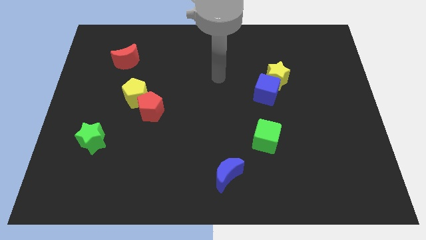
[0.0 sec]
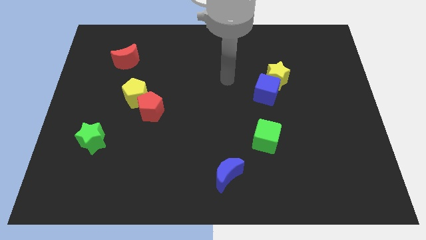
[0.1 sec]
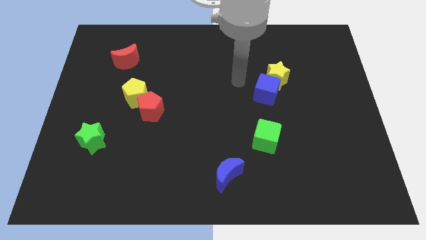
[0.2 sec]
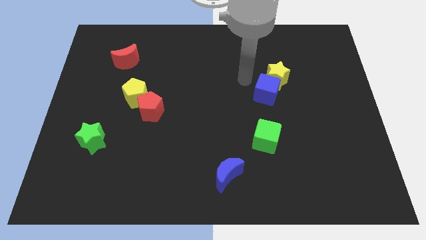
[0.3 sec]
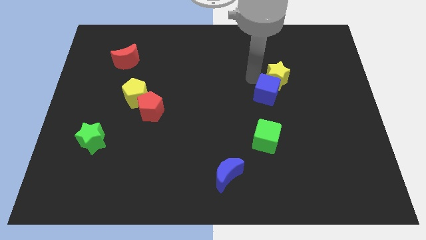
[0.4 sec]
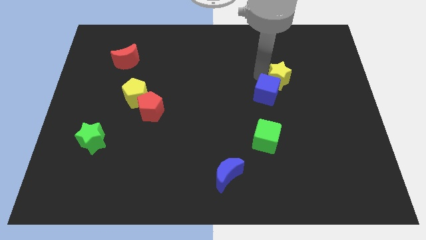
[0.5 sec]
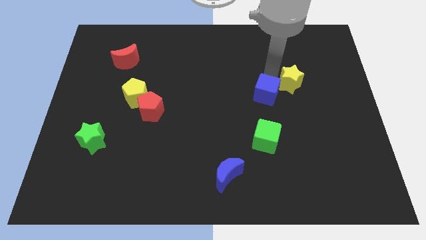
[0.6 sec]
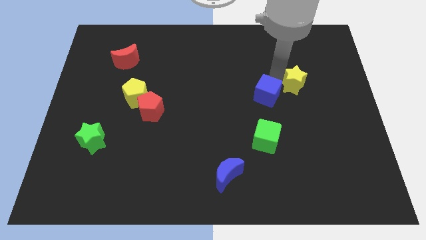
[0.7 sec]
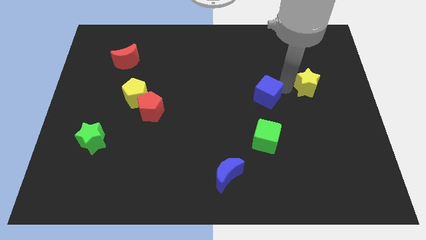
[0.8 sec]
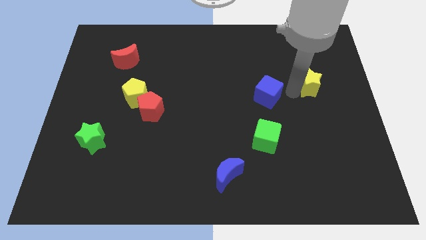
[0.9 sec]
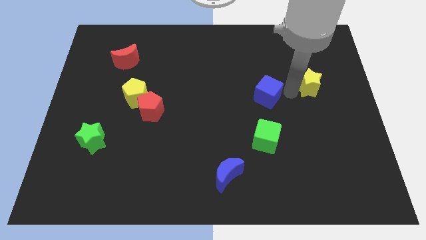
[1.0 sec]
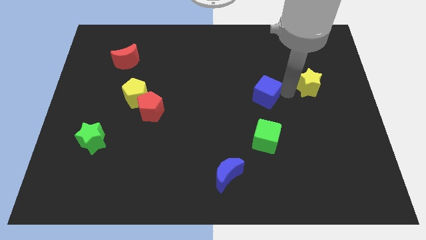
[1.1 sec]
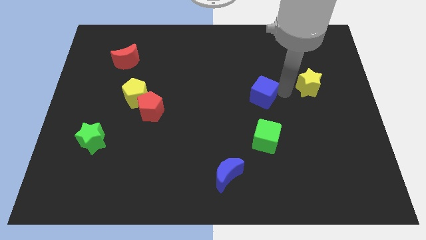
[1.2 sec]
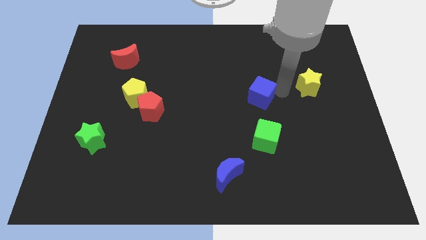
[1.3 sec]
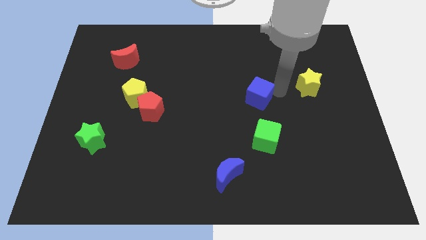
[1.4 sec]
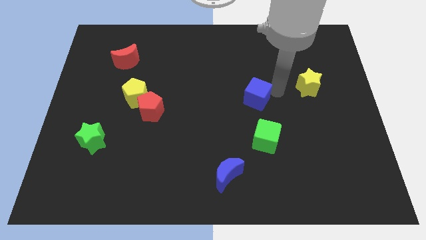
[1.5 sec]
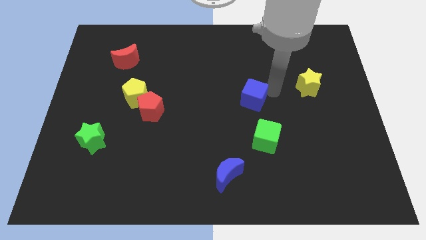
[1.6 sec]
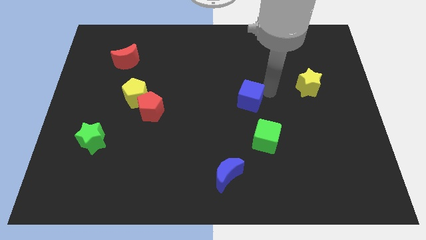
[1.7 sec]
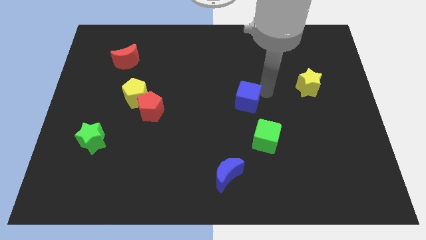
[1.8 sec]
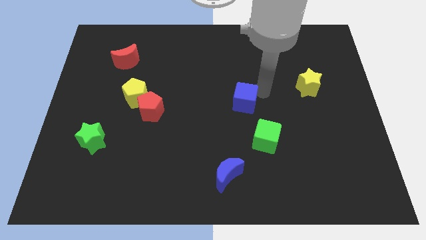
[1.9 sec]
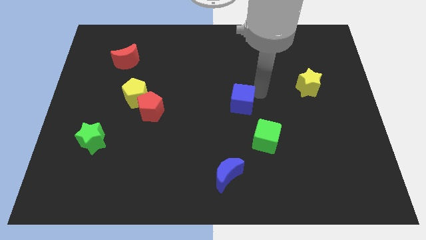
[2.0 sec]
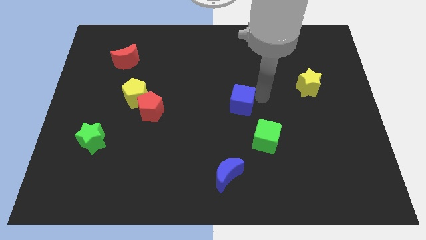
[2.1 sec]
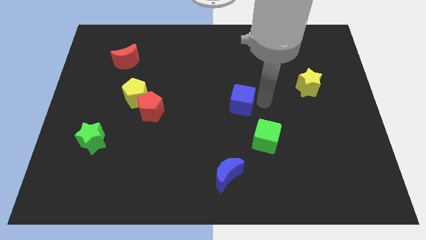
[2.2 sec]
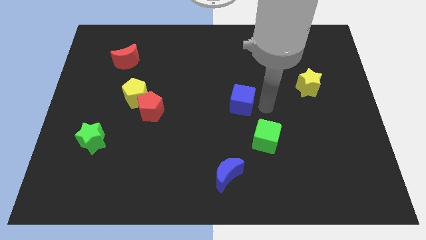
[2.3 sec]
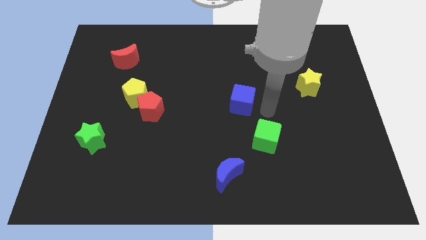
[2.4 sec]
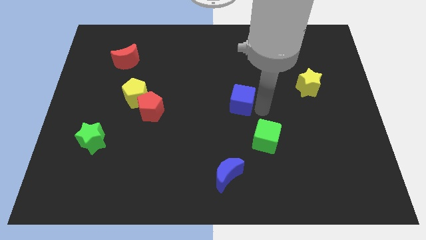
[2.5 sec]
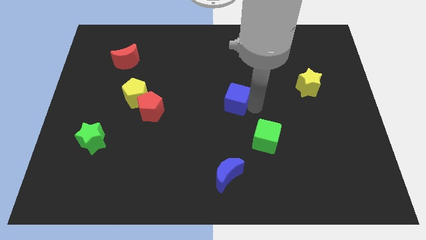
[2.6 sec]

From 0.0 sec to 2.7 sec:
move the blue cube somewhat left

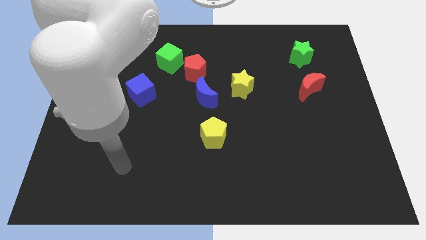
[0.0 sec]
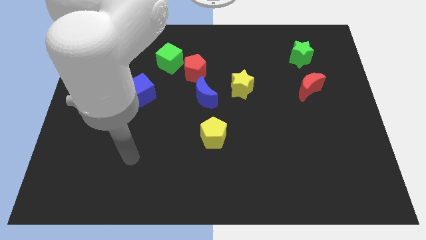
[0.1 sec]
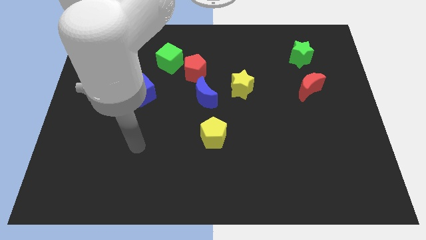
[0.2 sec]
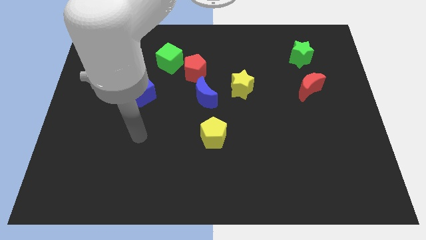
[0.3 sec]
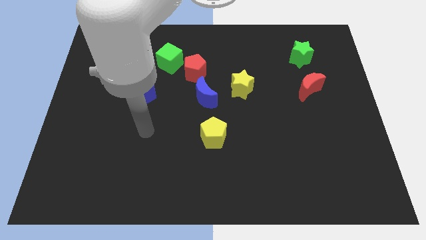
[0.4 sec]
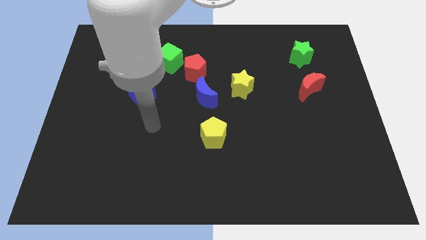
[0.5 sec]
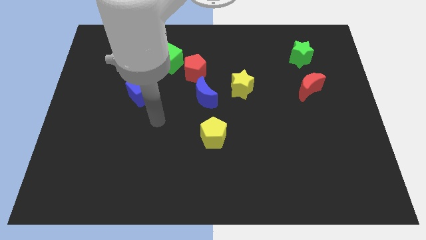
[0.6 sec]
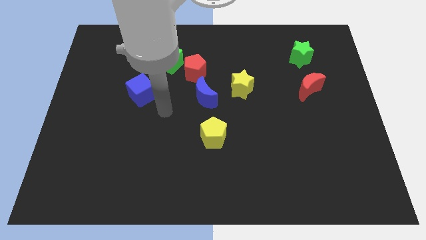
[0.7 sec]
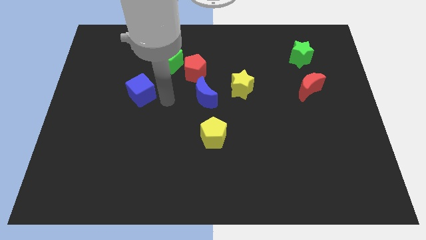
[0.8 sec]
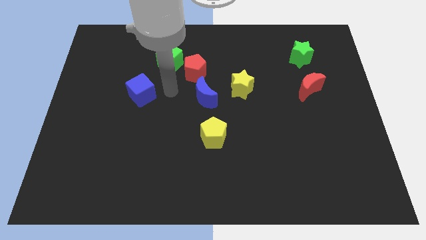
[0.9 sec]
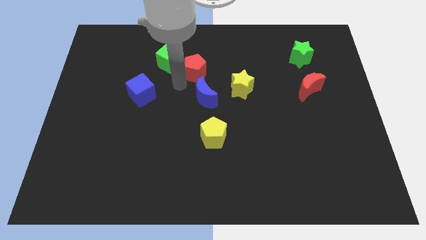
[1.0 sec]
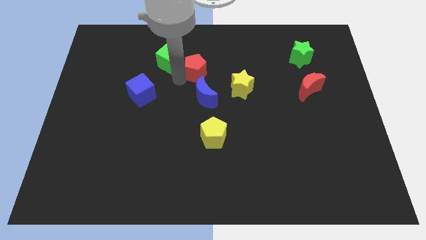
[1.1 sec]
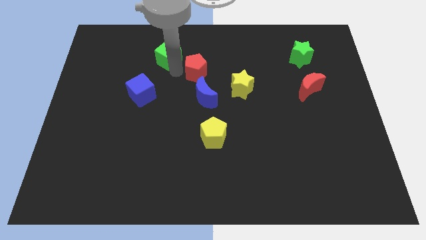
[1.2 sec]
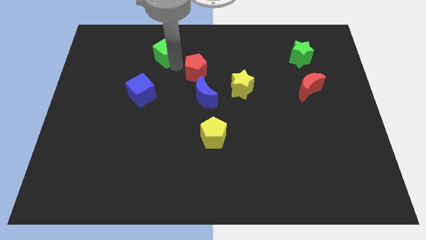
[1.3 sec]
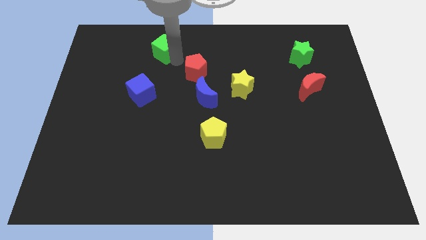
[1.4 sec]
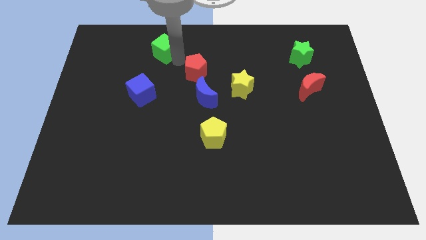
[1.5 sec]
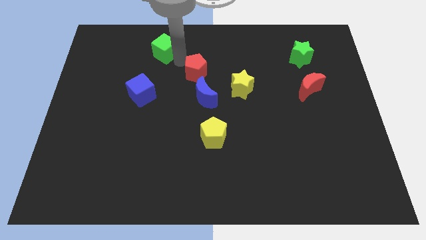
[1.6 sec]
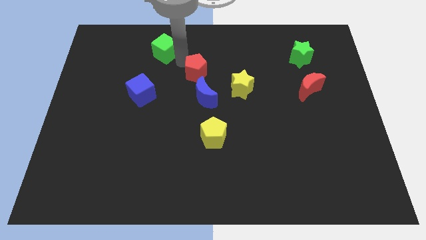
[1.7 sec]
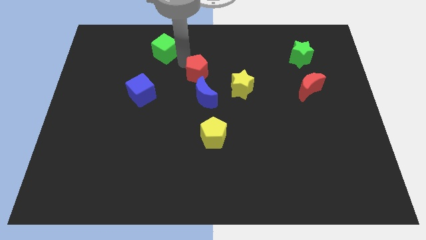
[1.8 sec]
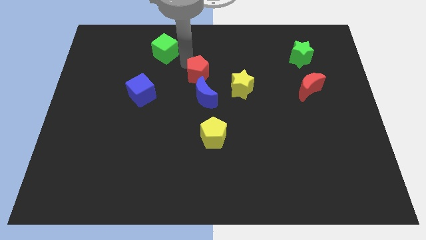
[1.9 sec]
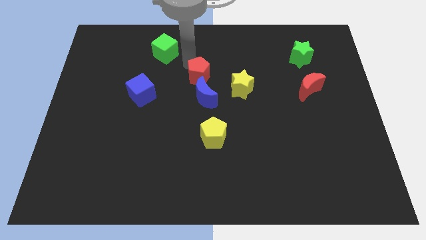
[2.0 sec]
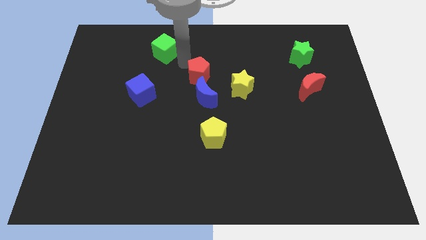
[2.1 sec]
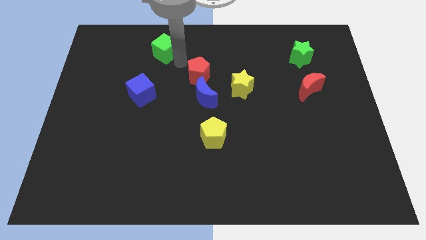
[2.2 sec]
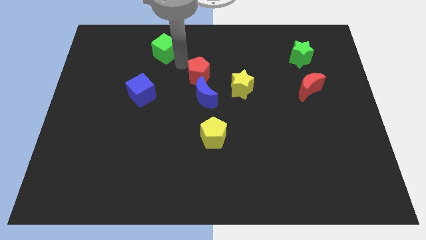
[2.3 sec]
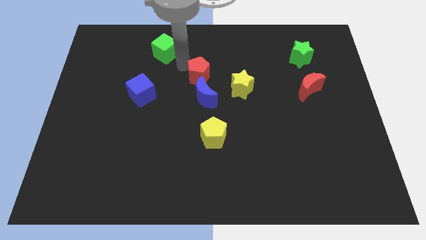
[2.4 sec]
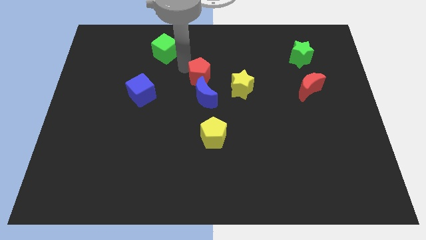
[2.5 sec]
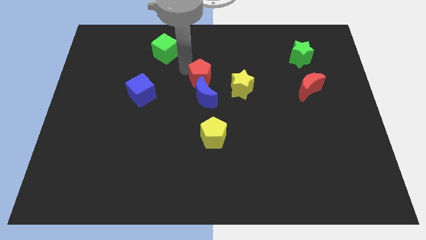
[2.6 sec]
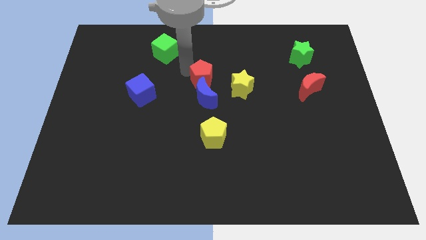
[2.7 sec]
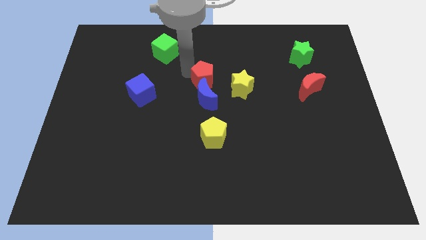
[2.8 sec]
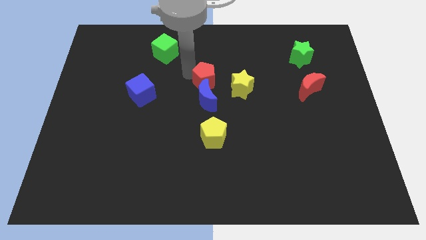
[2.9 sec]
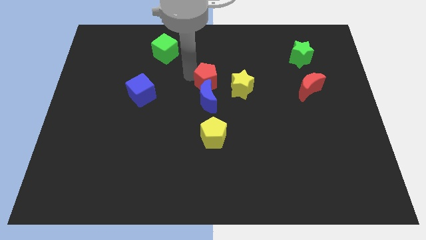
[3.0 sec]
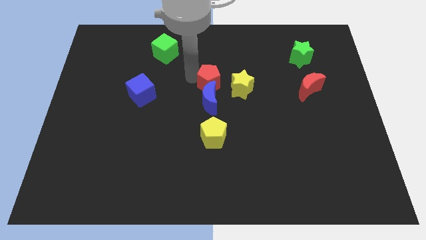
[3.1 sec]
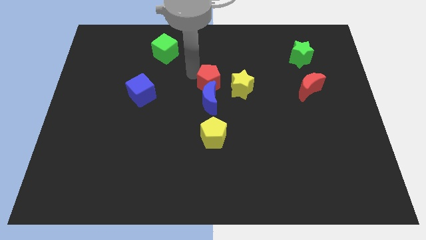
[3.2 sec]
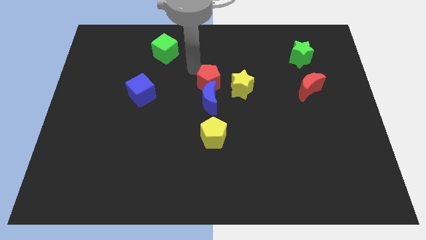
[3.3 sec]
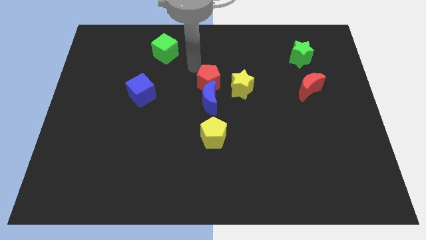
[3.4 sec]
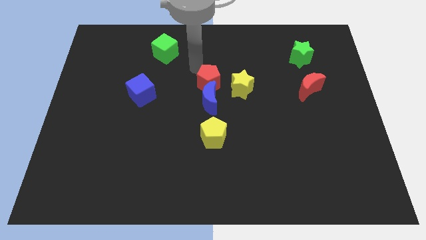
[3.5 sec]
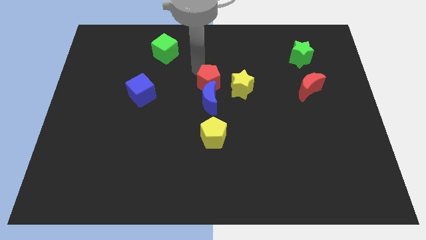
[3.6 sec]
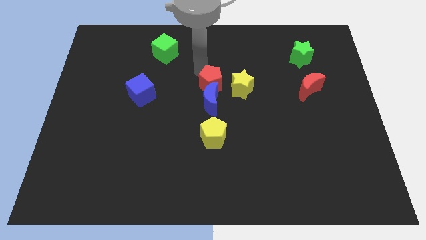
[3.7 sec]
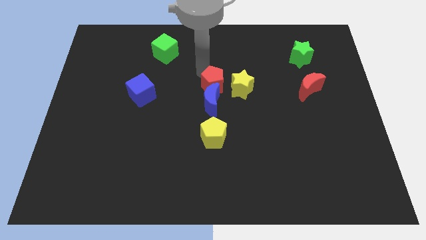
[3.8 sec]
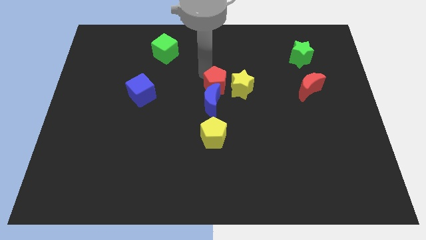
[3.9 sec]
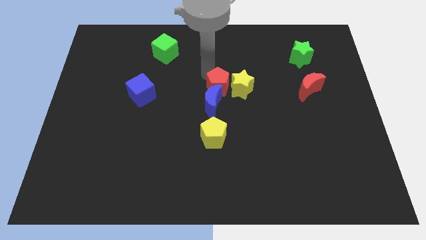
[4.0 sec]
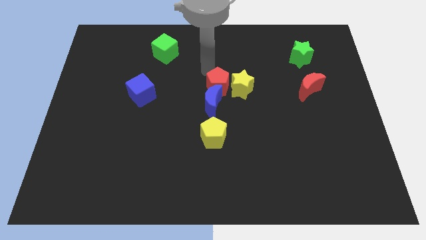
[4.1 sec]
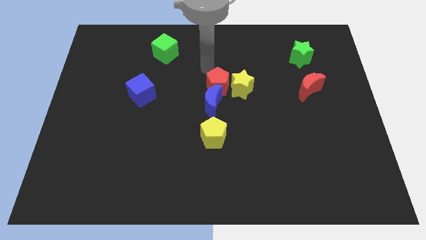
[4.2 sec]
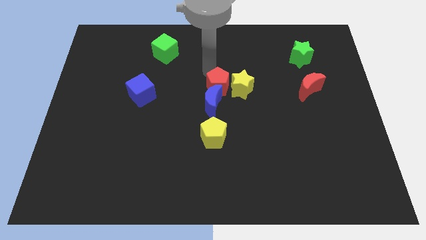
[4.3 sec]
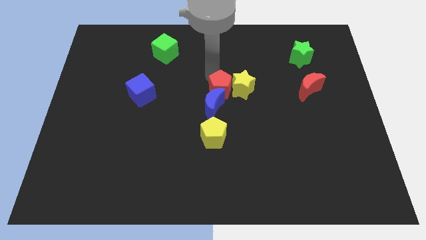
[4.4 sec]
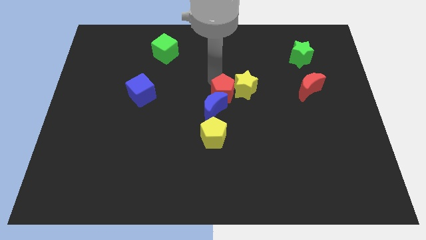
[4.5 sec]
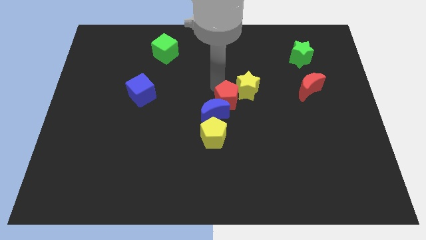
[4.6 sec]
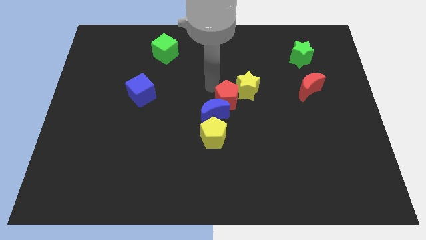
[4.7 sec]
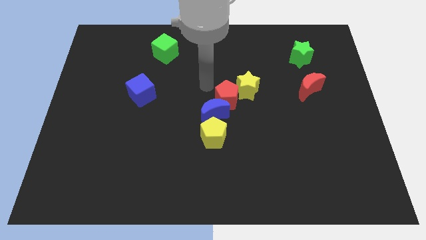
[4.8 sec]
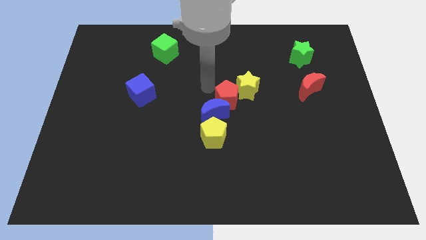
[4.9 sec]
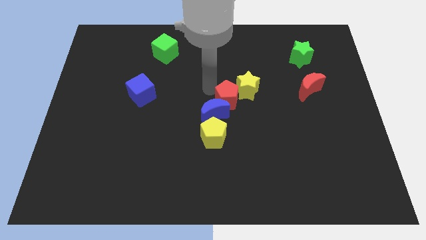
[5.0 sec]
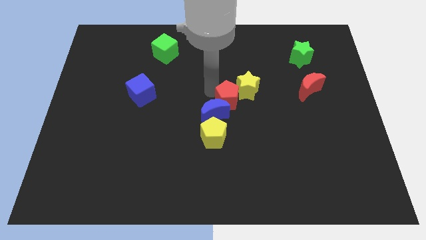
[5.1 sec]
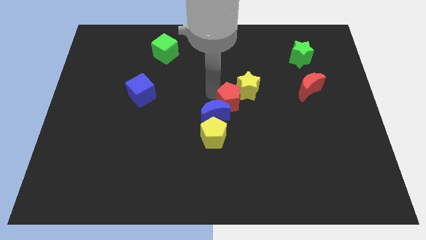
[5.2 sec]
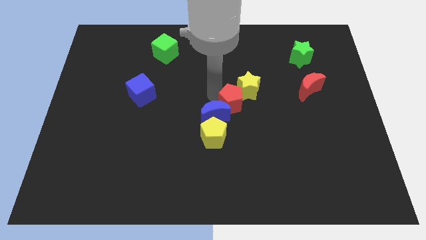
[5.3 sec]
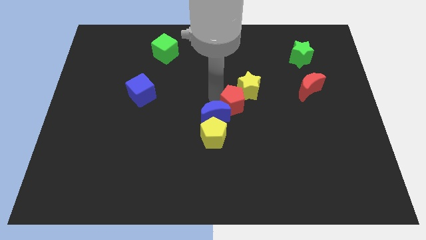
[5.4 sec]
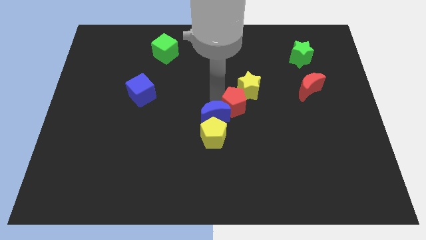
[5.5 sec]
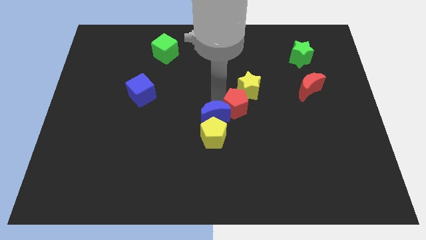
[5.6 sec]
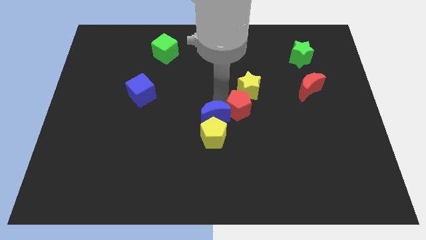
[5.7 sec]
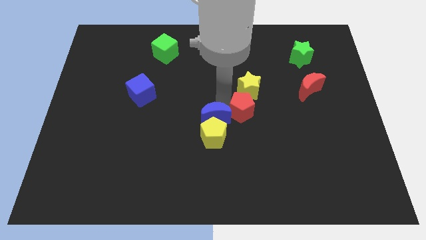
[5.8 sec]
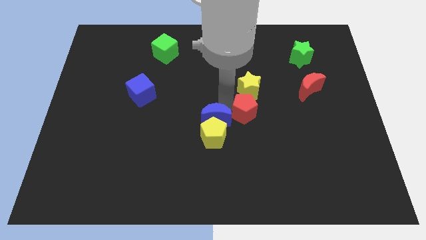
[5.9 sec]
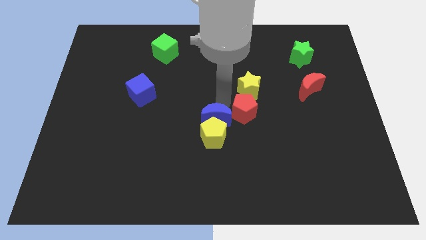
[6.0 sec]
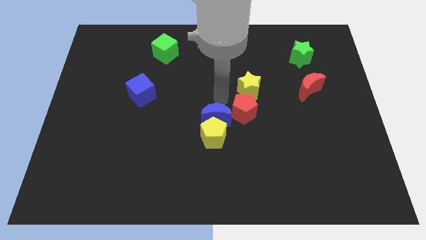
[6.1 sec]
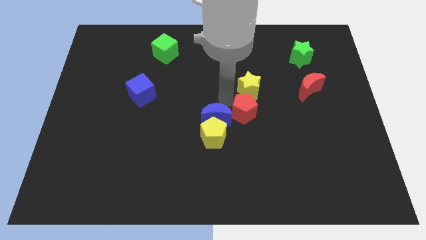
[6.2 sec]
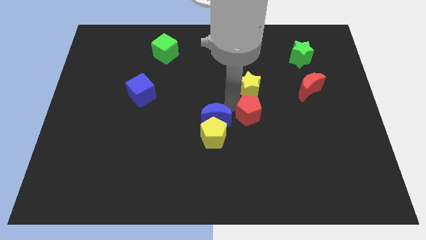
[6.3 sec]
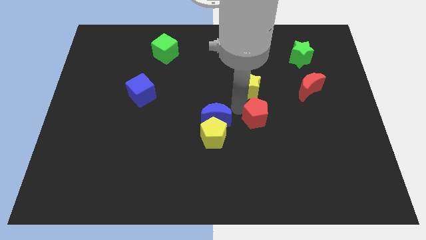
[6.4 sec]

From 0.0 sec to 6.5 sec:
slide the red pentagon down and to the right
